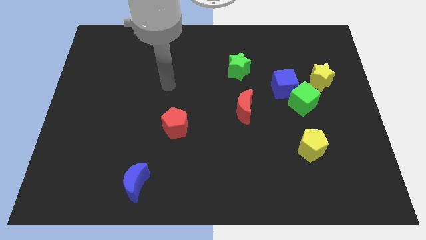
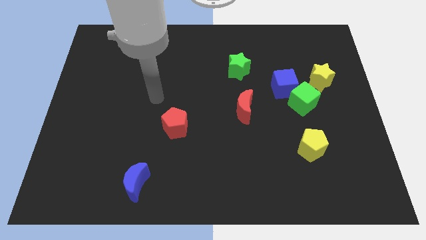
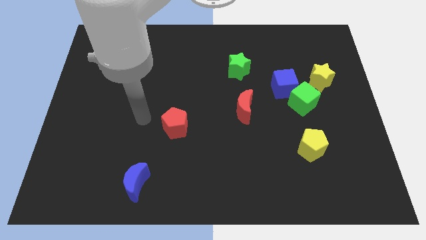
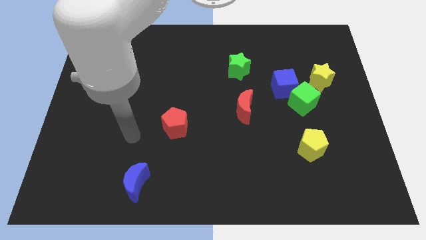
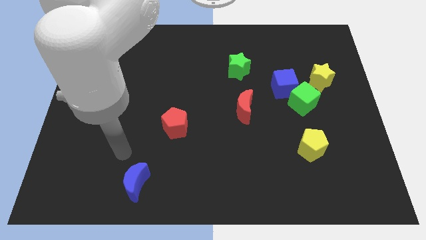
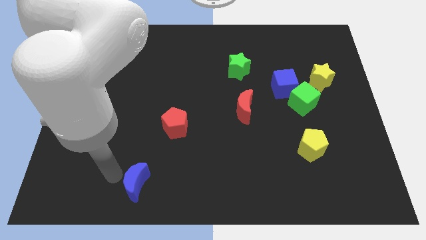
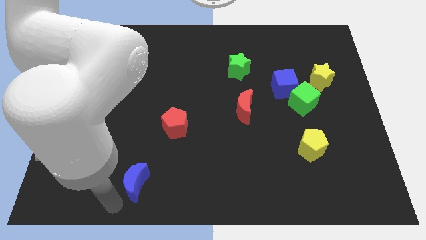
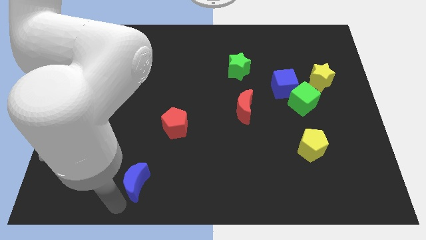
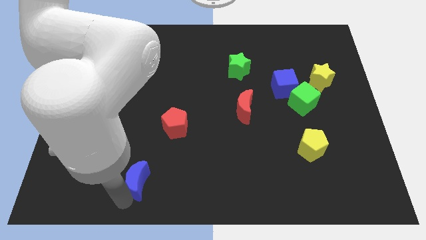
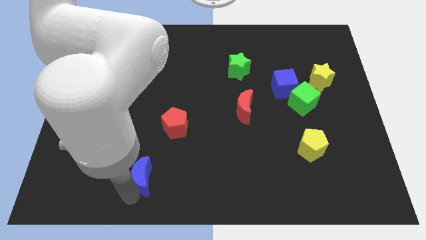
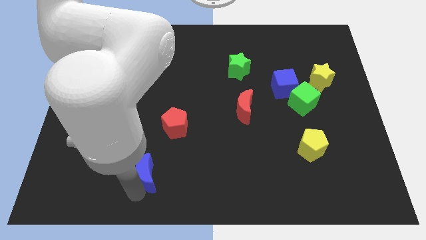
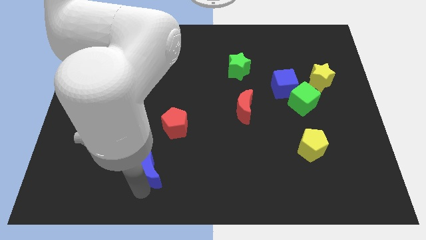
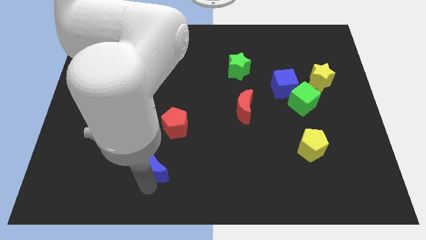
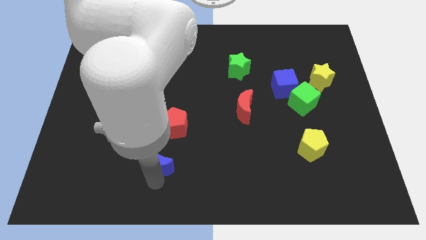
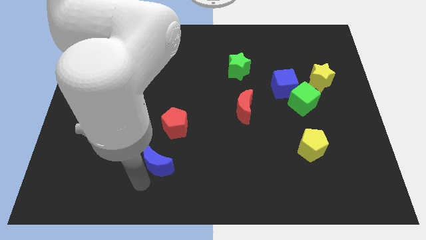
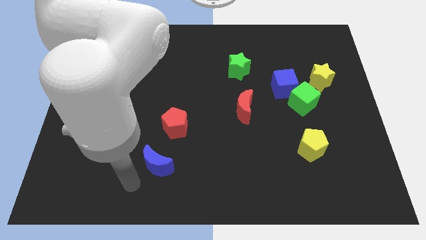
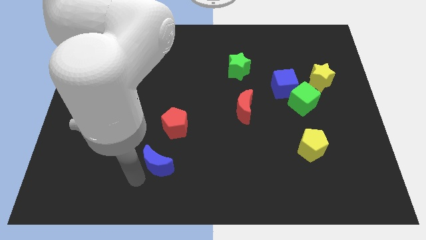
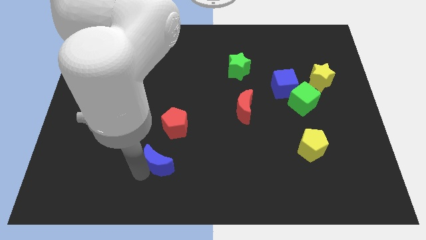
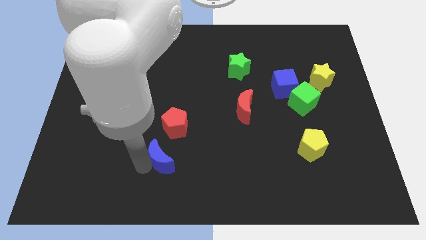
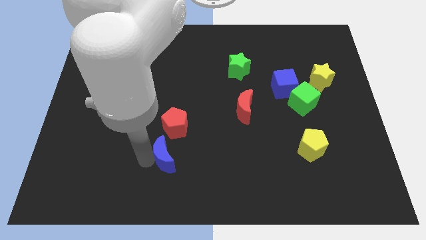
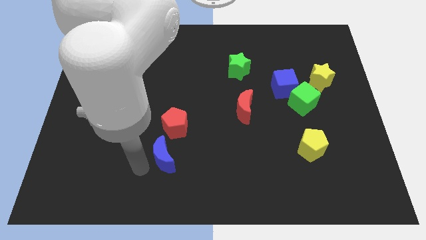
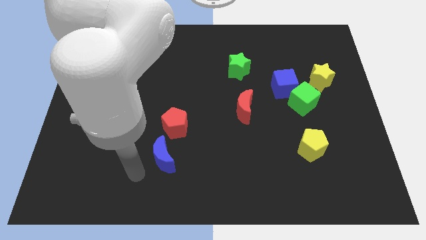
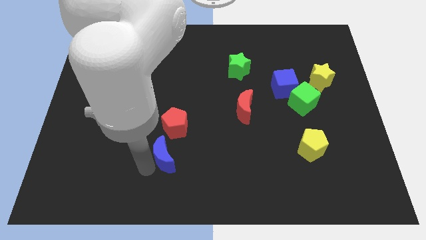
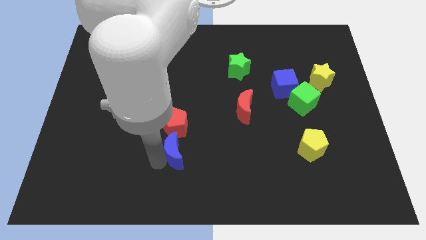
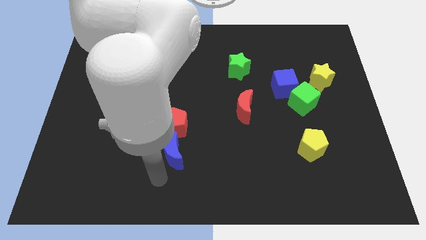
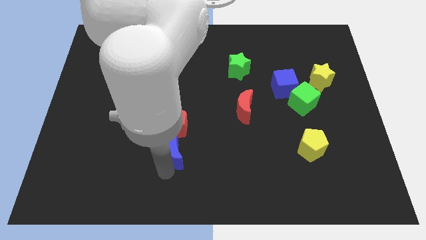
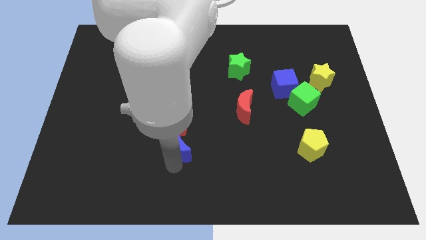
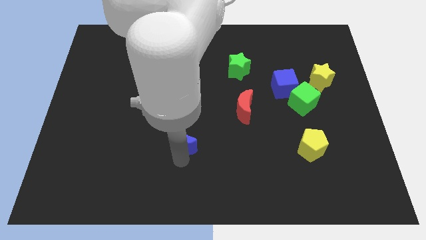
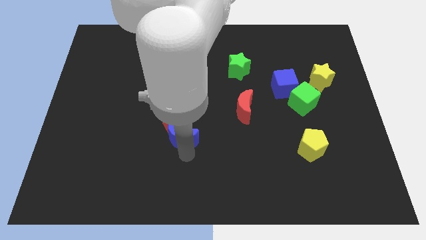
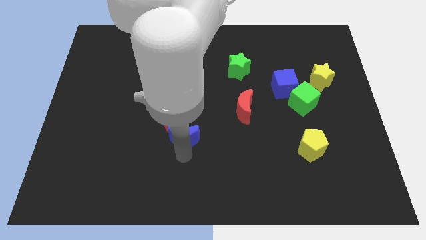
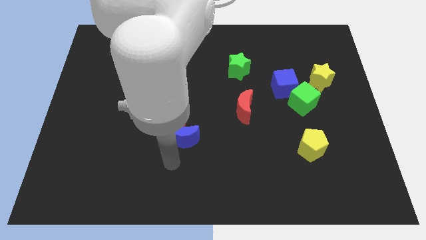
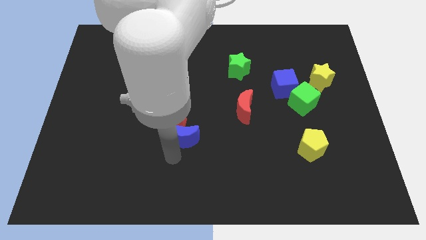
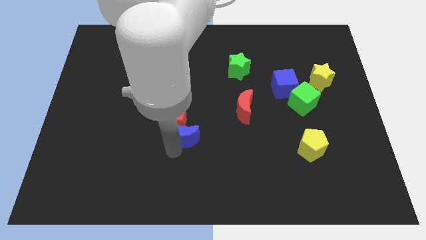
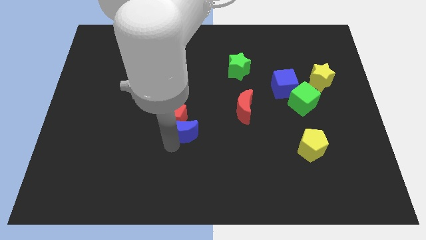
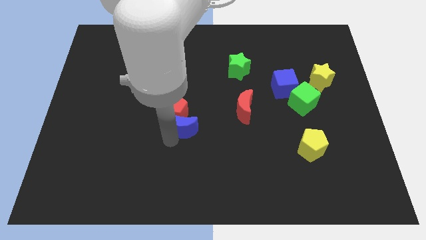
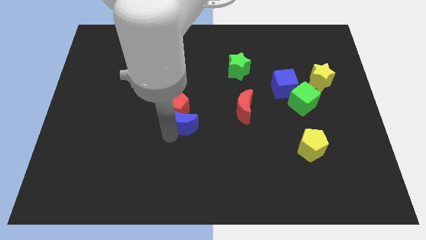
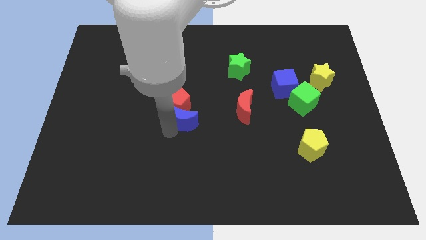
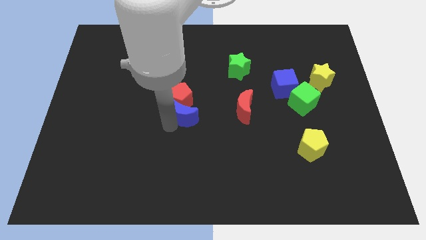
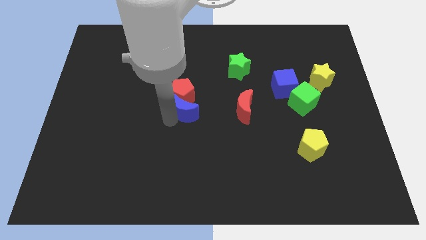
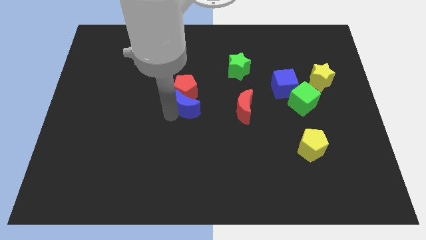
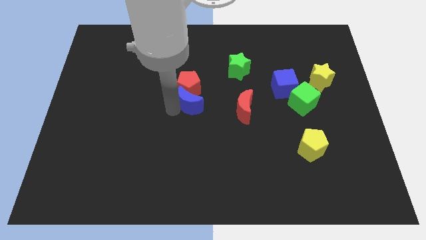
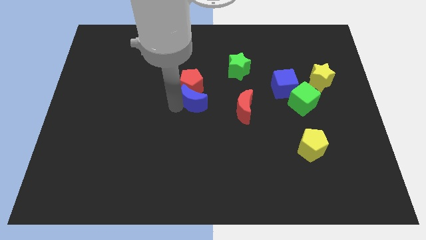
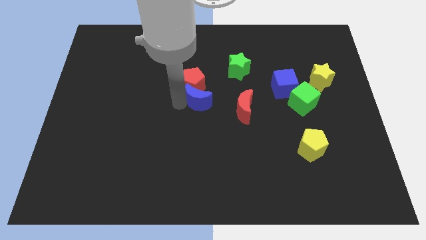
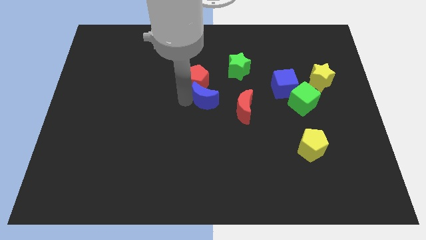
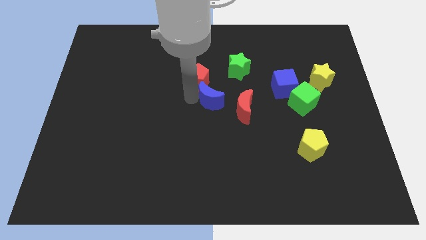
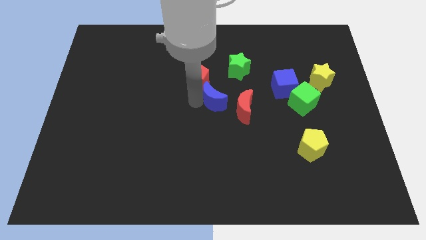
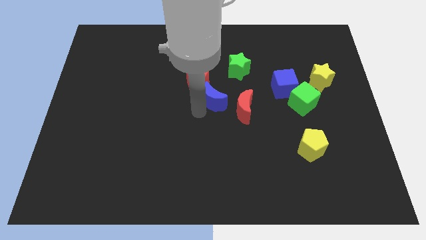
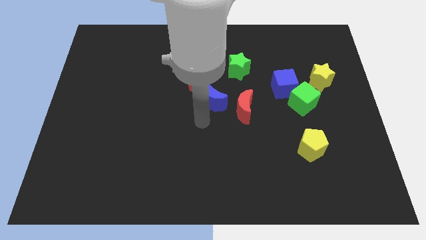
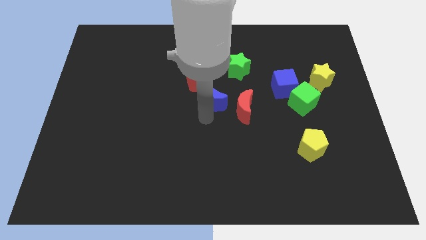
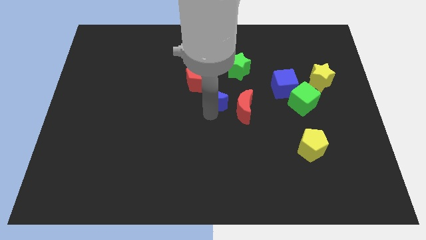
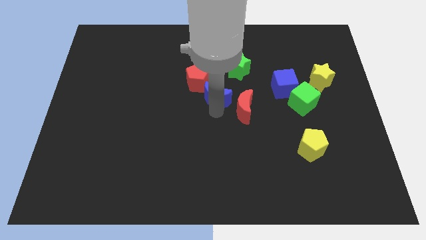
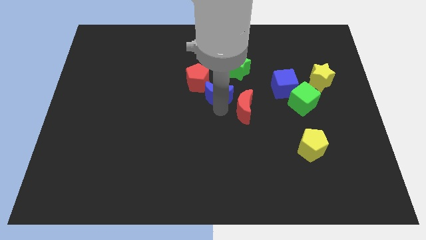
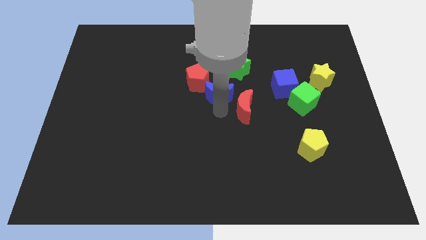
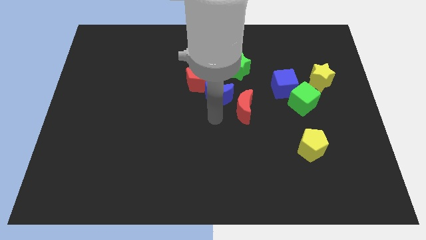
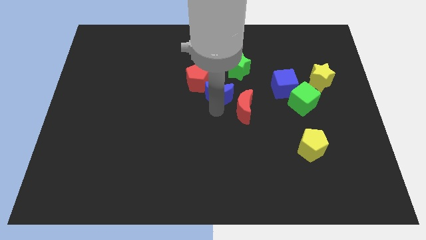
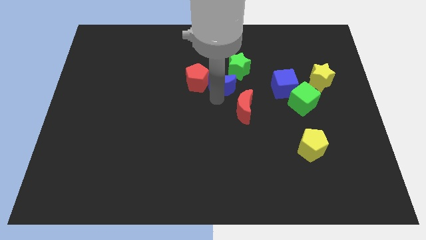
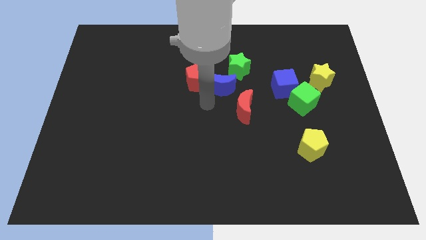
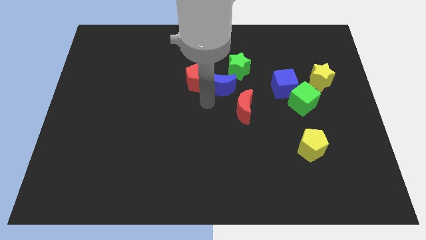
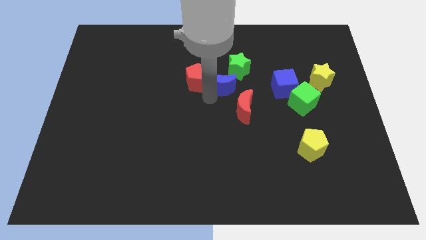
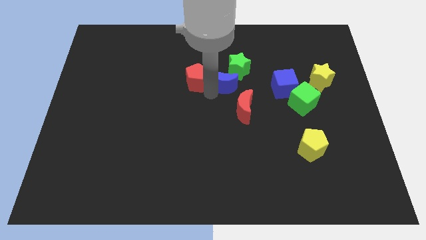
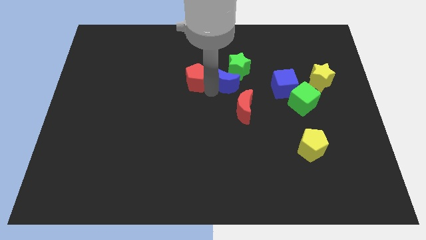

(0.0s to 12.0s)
put the blue moon next to the green star
